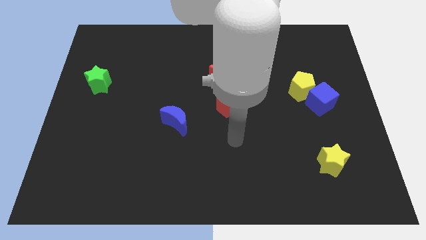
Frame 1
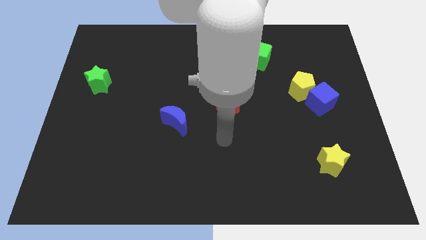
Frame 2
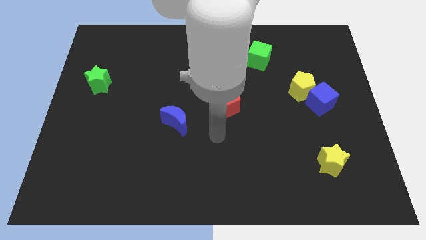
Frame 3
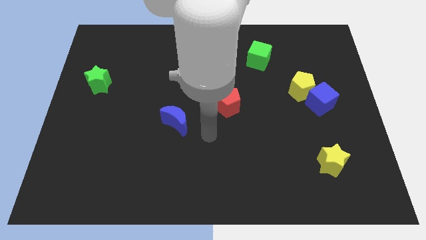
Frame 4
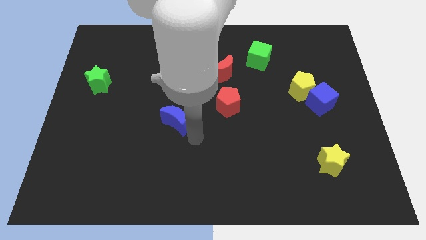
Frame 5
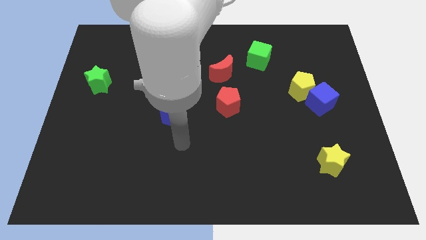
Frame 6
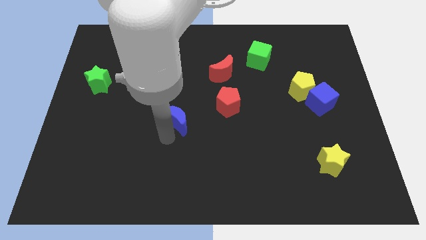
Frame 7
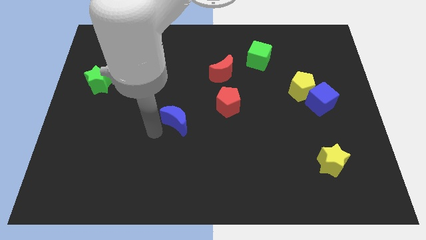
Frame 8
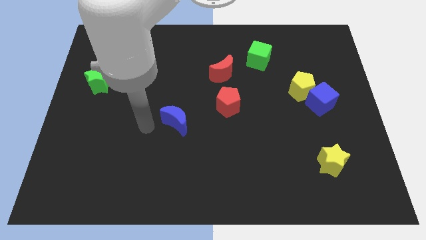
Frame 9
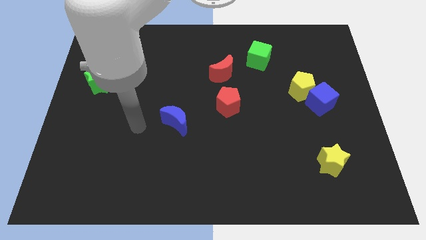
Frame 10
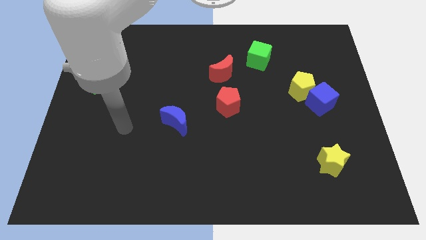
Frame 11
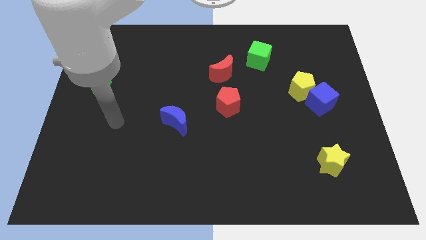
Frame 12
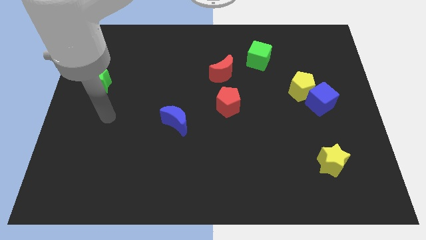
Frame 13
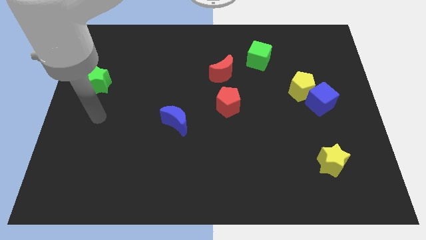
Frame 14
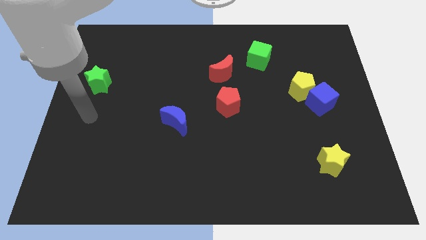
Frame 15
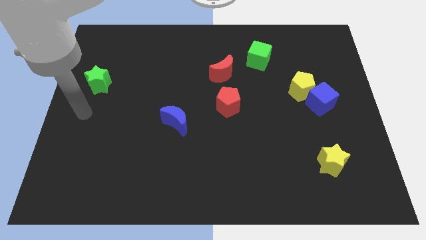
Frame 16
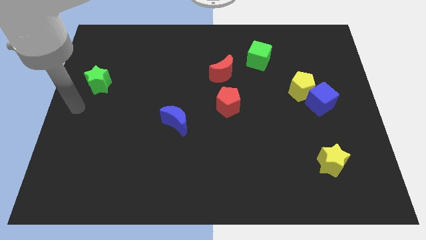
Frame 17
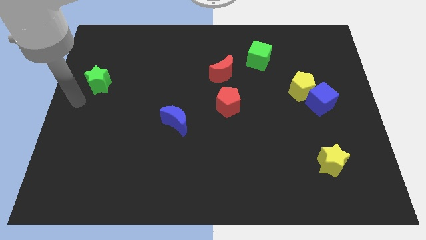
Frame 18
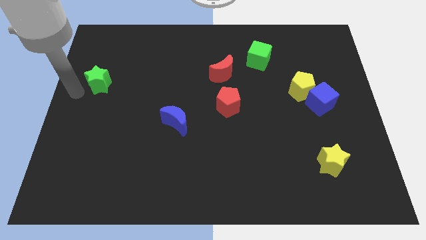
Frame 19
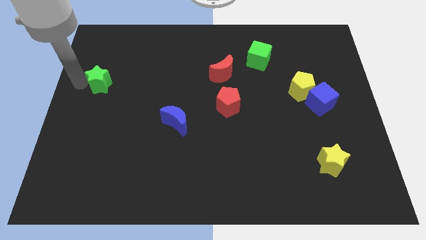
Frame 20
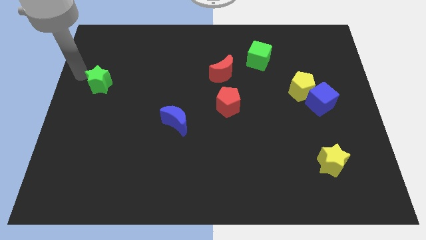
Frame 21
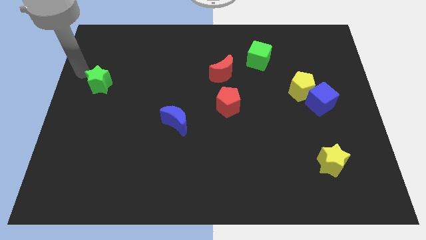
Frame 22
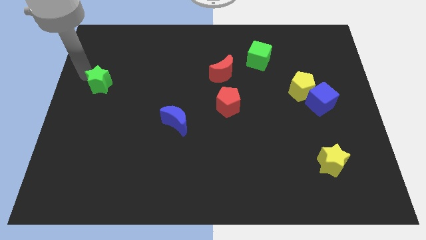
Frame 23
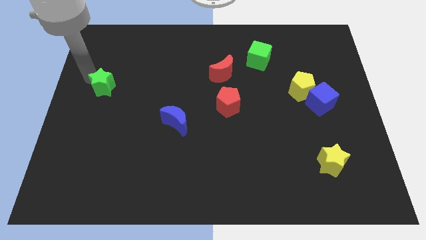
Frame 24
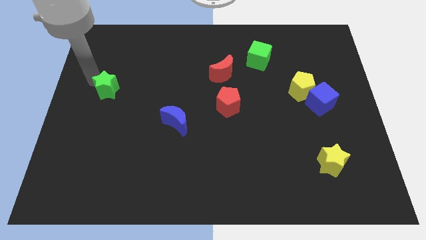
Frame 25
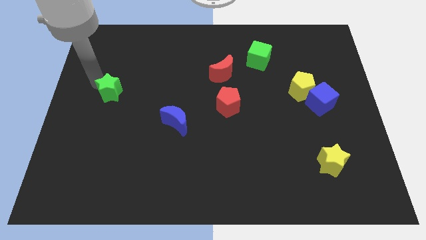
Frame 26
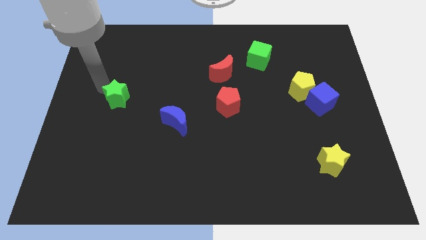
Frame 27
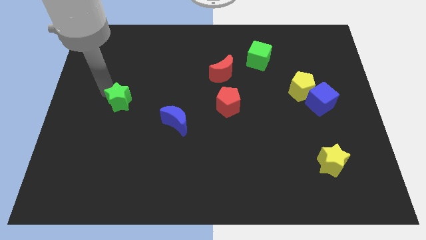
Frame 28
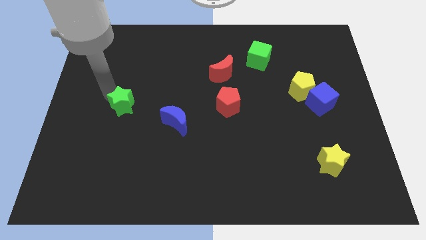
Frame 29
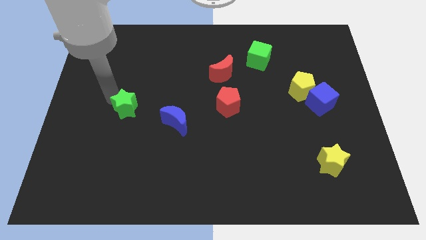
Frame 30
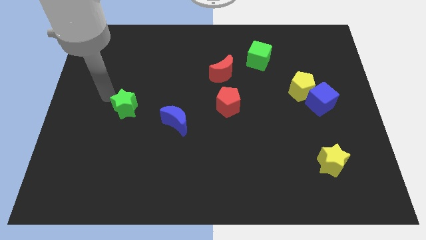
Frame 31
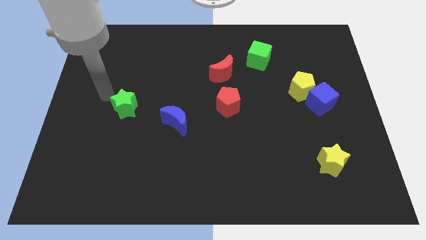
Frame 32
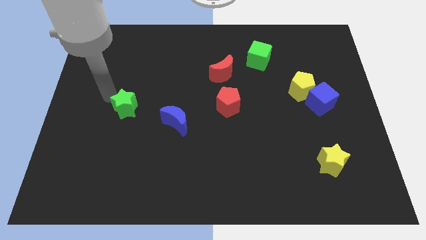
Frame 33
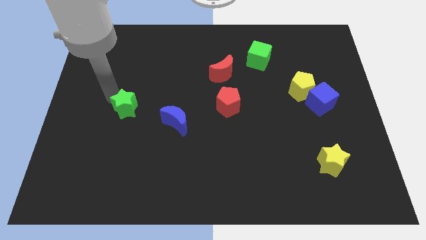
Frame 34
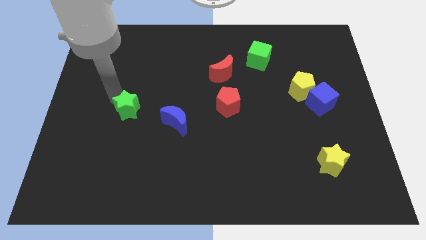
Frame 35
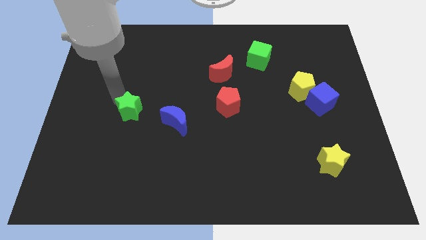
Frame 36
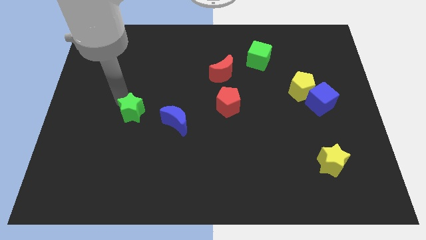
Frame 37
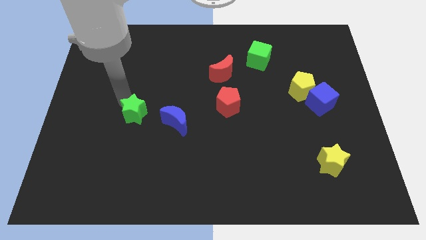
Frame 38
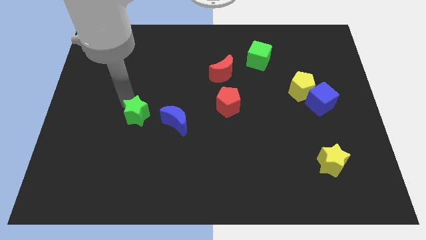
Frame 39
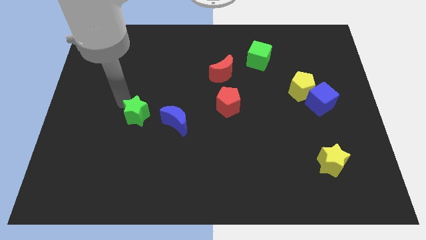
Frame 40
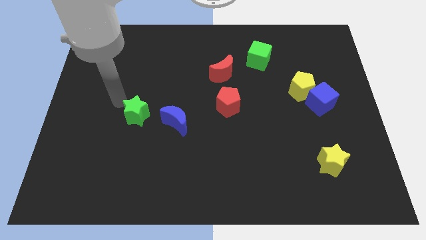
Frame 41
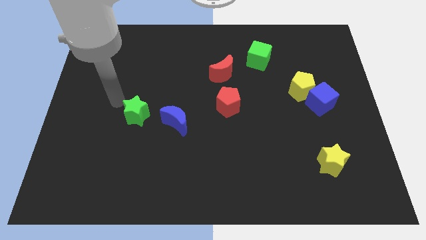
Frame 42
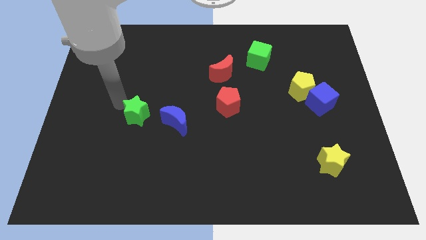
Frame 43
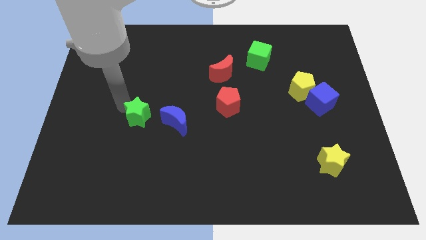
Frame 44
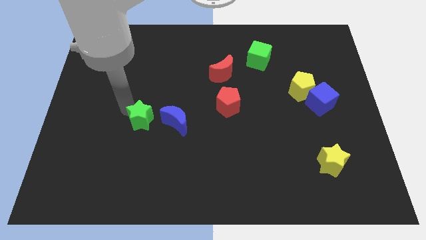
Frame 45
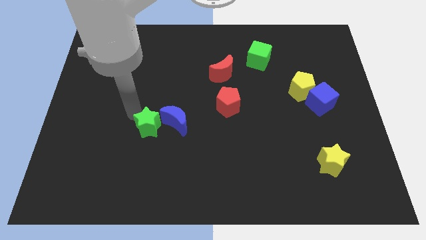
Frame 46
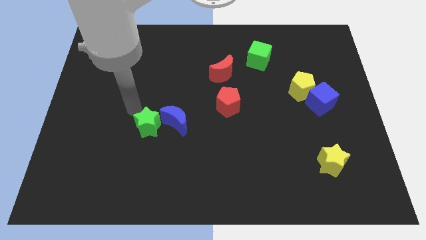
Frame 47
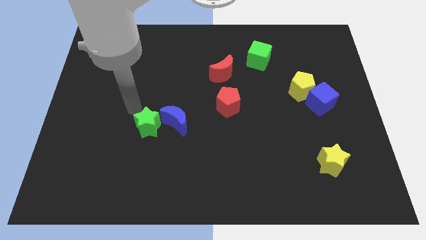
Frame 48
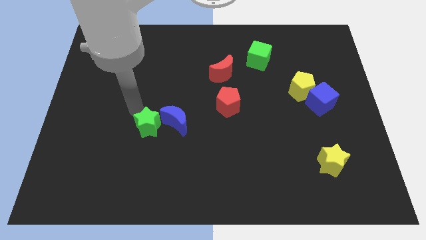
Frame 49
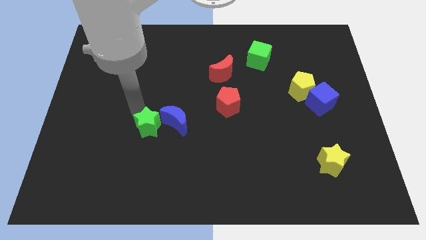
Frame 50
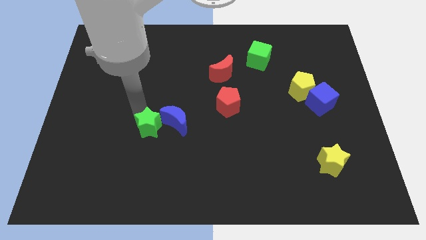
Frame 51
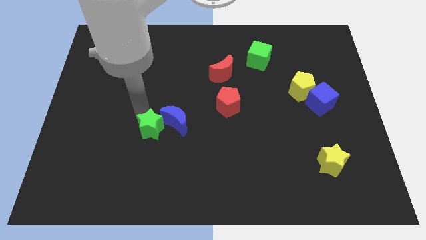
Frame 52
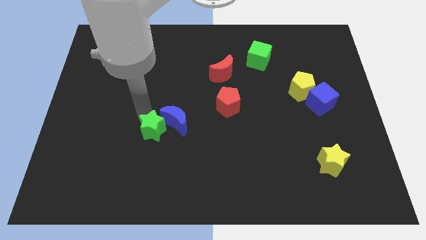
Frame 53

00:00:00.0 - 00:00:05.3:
push the green star downwards and to the right diagonally

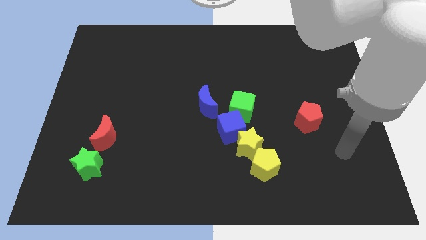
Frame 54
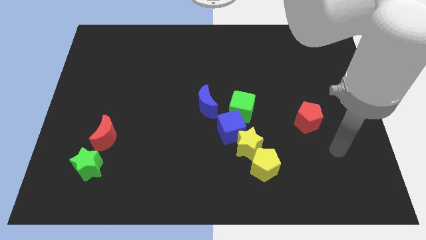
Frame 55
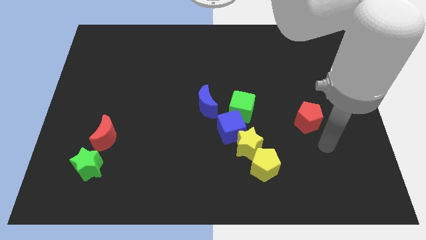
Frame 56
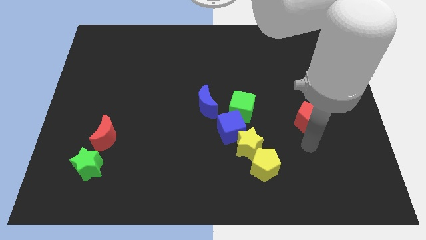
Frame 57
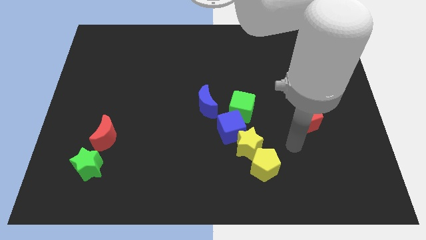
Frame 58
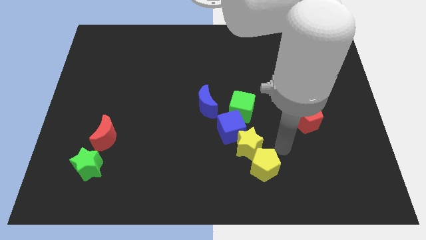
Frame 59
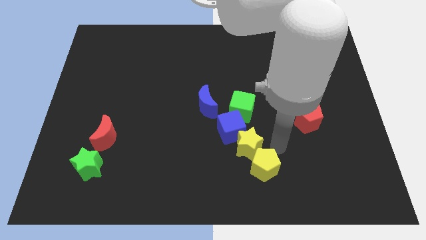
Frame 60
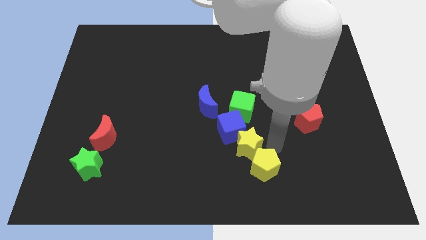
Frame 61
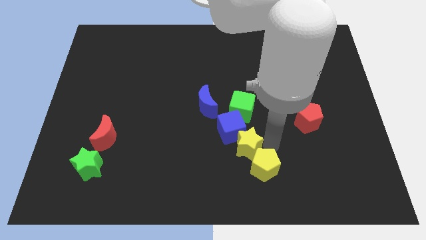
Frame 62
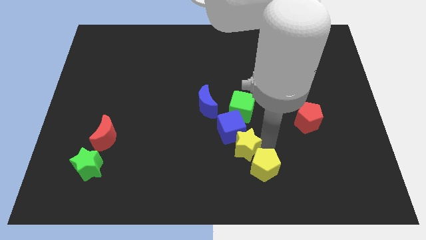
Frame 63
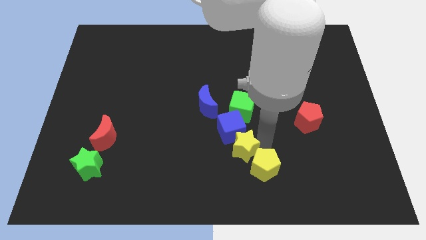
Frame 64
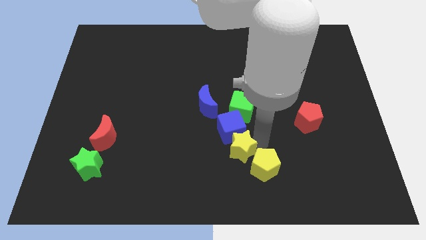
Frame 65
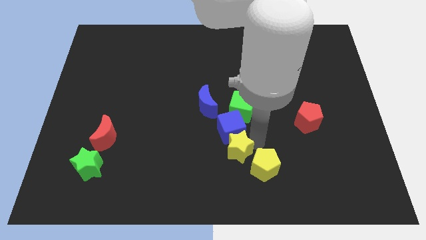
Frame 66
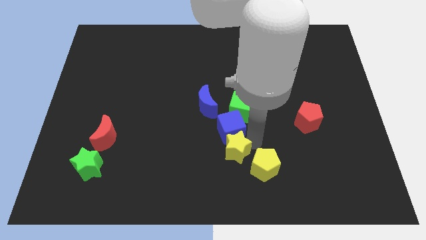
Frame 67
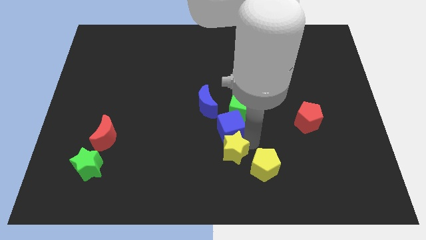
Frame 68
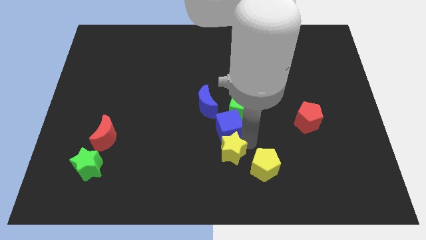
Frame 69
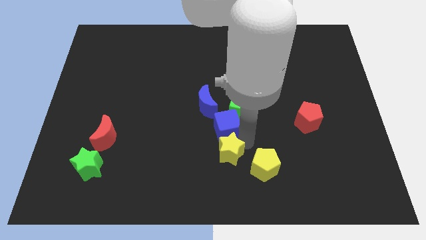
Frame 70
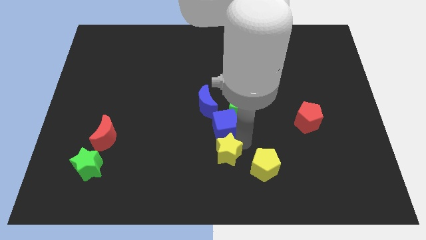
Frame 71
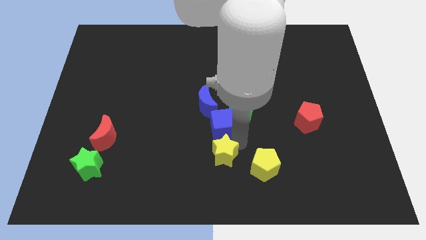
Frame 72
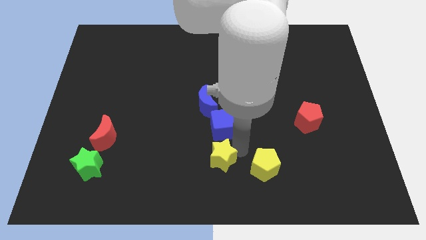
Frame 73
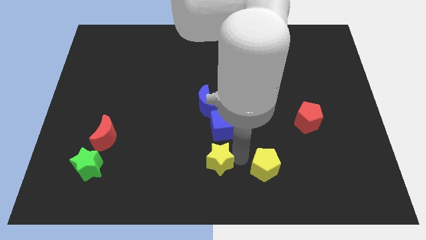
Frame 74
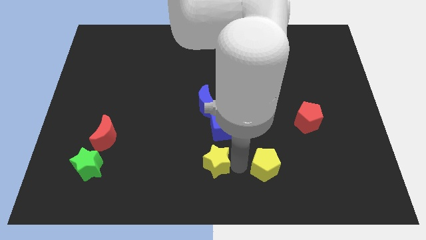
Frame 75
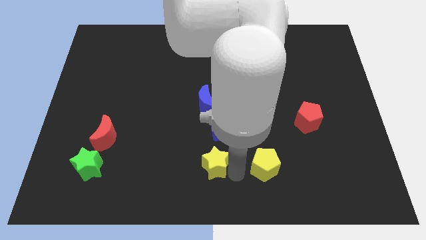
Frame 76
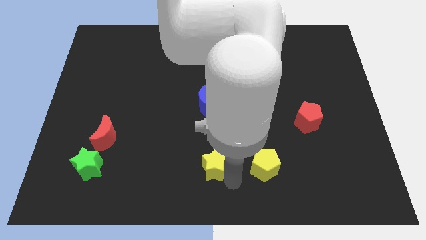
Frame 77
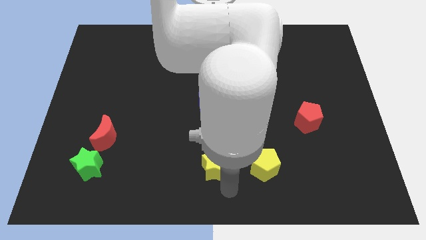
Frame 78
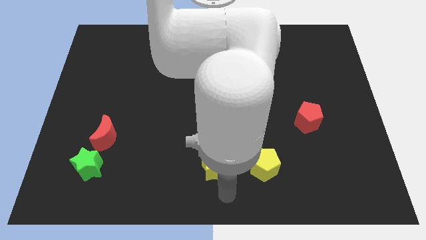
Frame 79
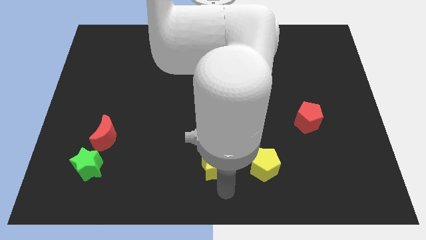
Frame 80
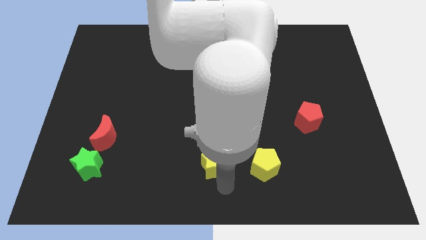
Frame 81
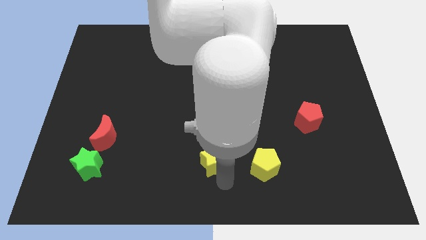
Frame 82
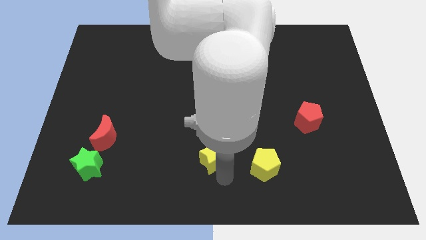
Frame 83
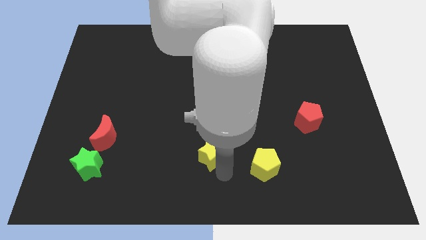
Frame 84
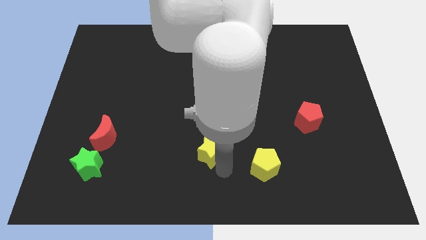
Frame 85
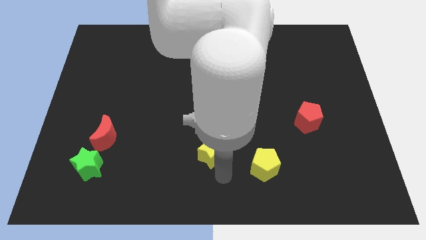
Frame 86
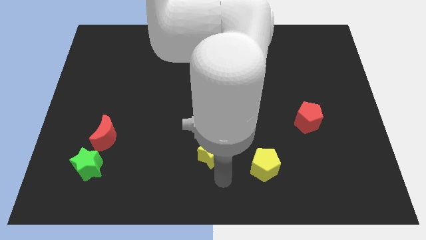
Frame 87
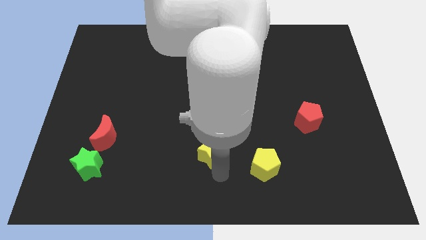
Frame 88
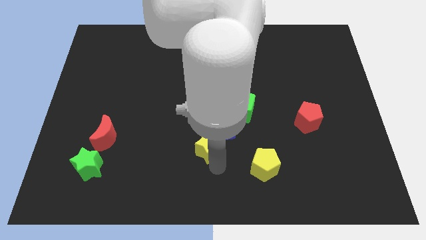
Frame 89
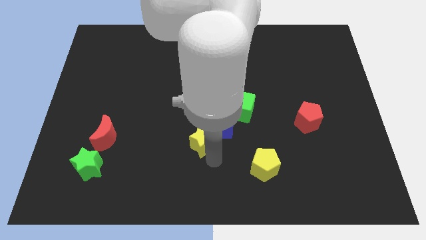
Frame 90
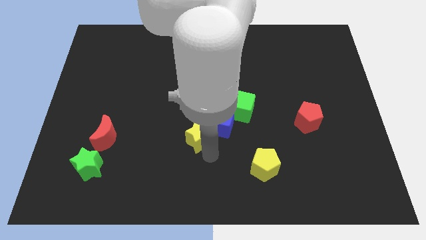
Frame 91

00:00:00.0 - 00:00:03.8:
slide the yellow star slightly diagonally up and to the left
